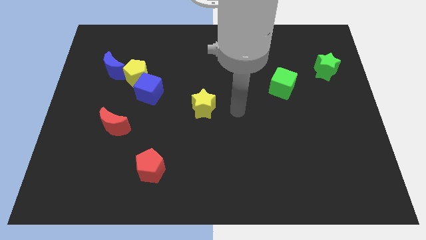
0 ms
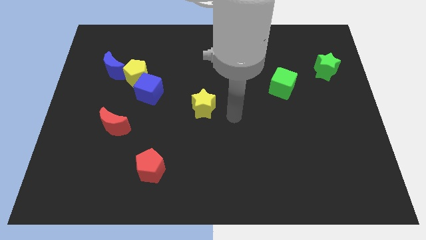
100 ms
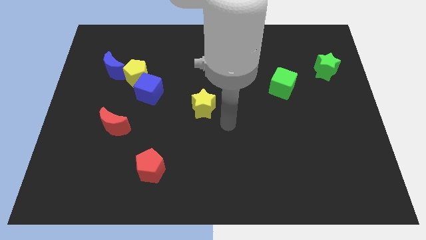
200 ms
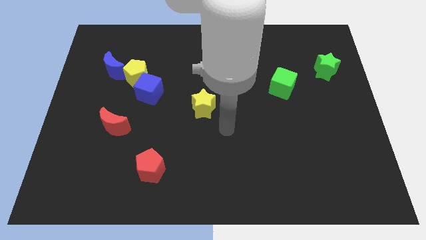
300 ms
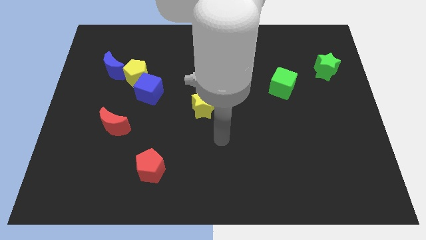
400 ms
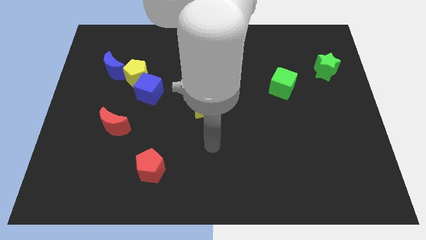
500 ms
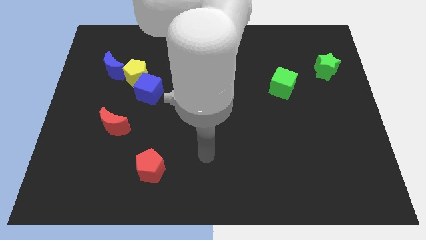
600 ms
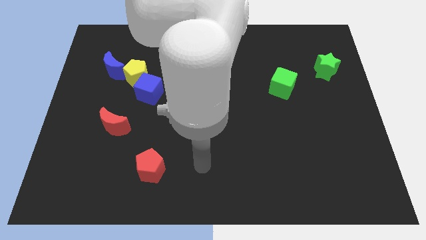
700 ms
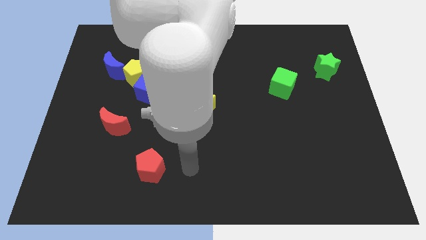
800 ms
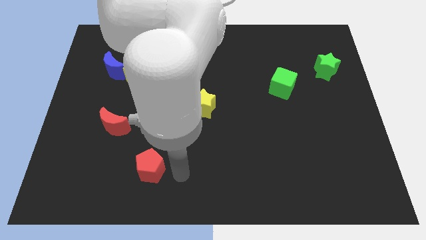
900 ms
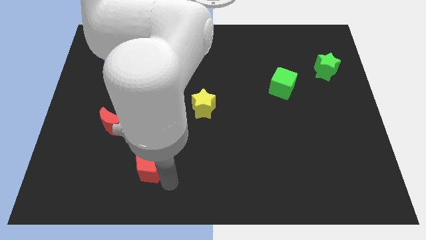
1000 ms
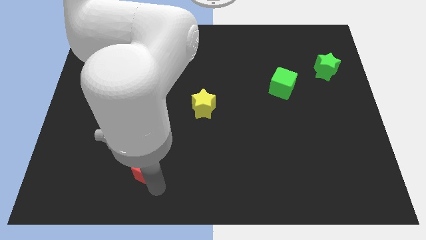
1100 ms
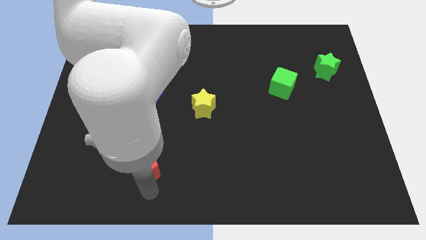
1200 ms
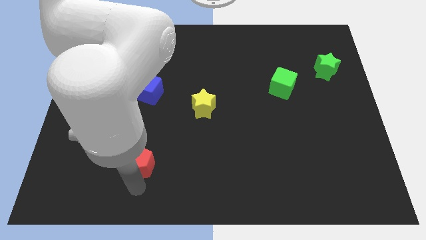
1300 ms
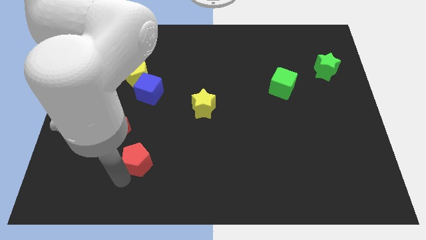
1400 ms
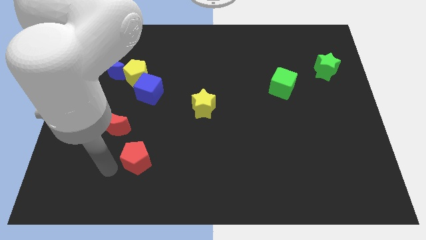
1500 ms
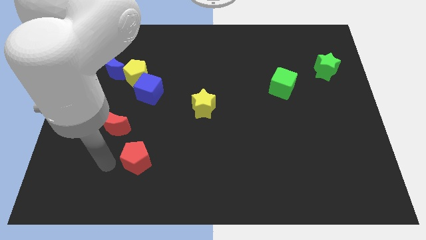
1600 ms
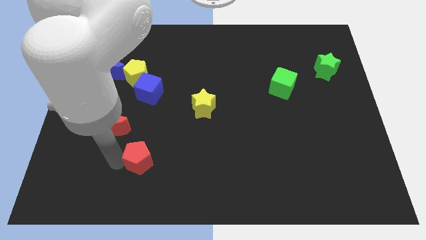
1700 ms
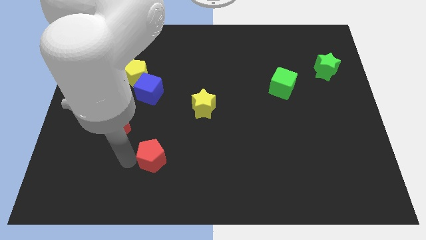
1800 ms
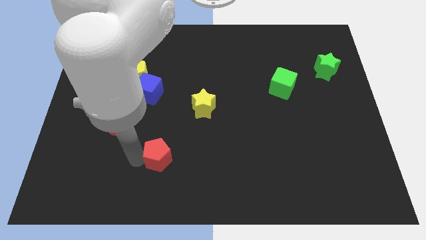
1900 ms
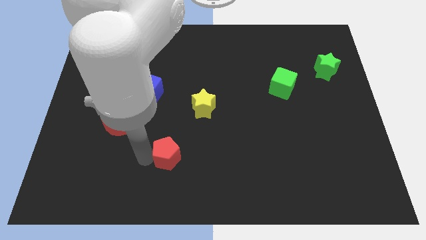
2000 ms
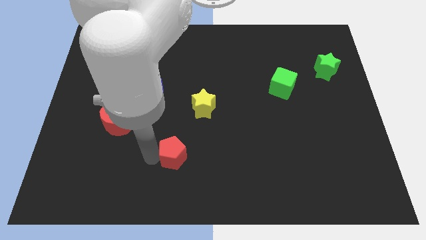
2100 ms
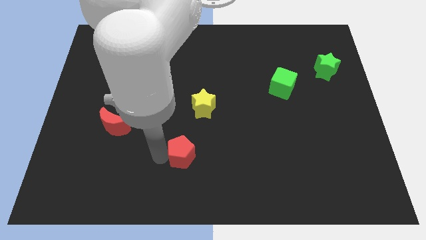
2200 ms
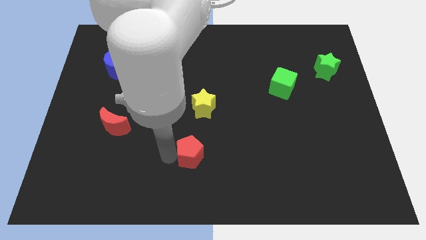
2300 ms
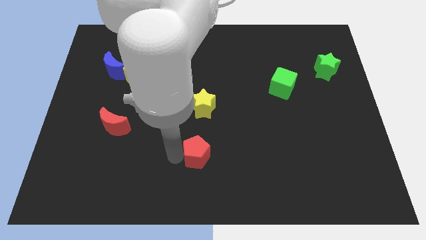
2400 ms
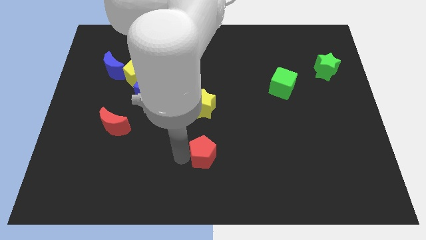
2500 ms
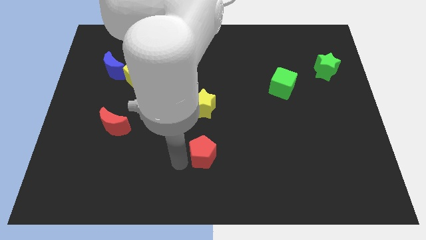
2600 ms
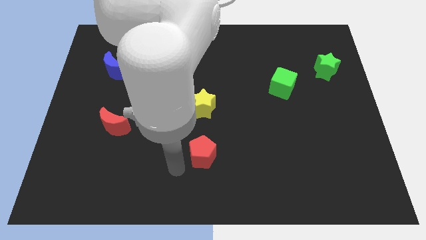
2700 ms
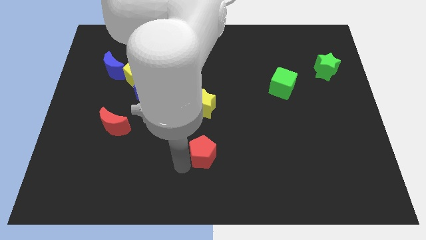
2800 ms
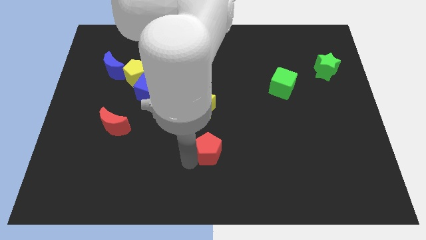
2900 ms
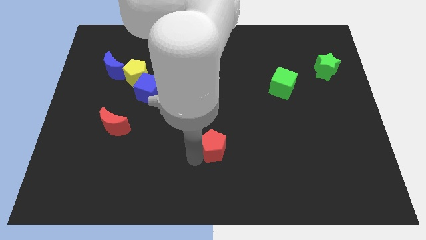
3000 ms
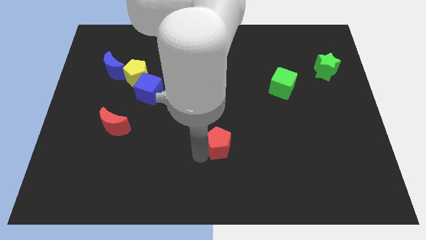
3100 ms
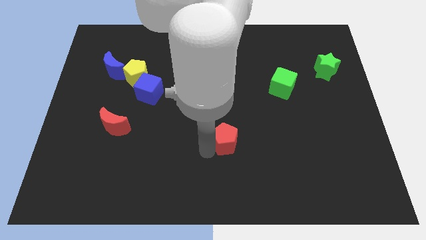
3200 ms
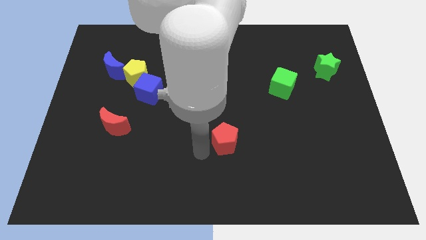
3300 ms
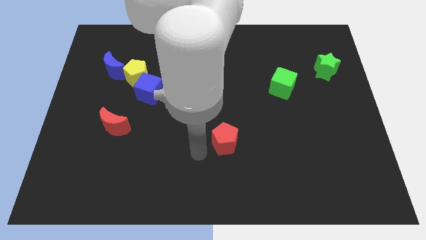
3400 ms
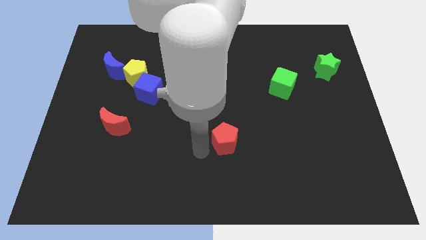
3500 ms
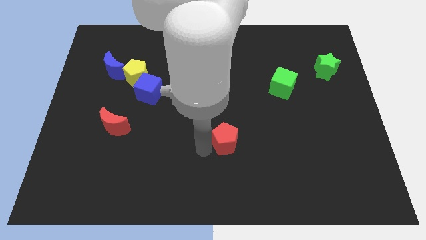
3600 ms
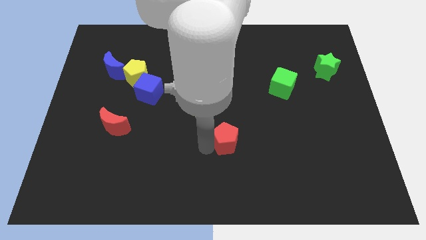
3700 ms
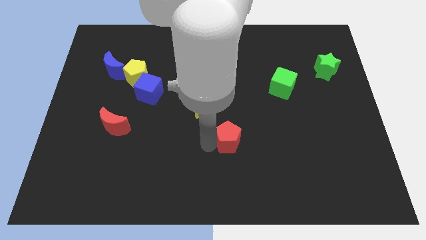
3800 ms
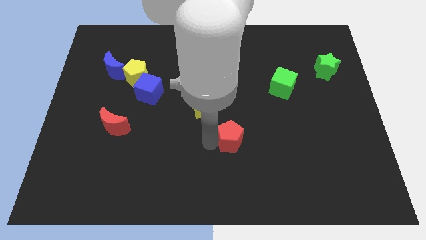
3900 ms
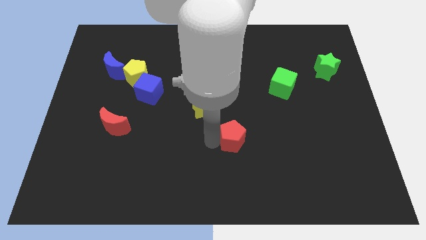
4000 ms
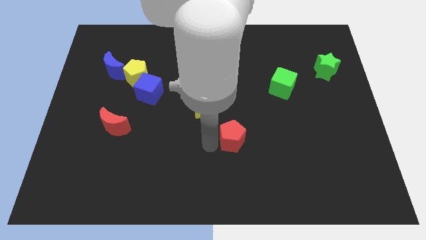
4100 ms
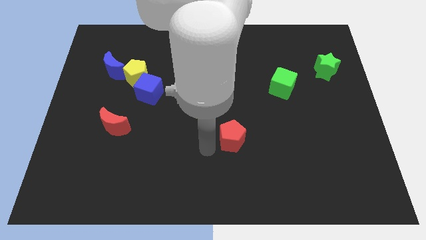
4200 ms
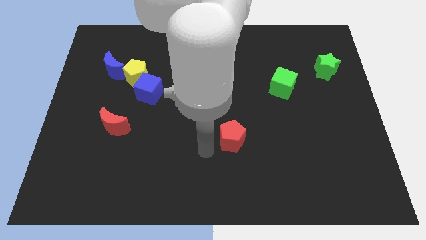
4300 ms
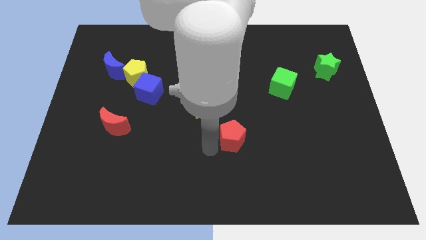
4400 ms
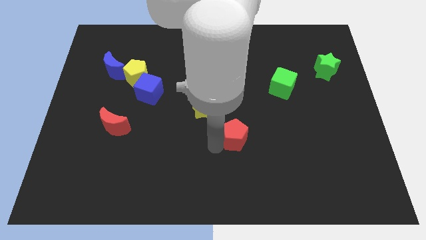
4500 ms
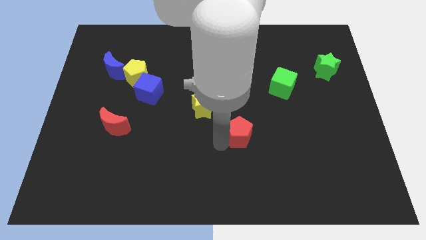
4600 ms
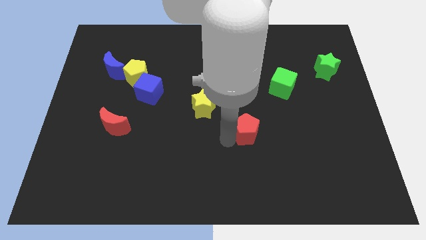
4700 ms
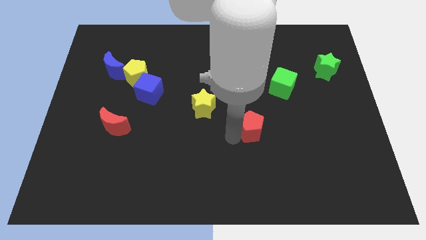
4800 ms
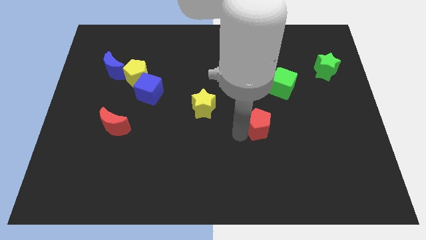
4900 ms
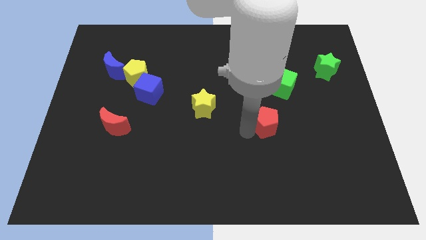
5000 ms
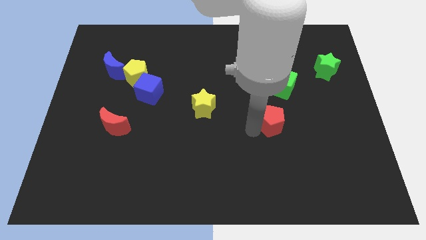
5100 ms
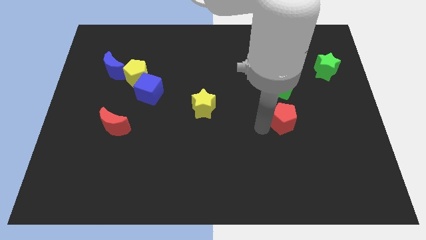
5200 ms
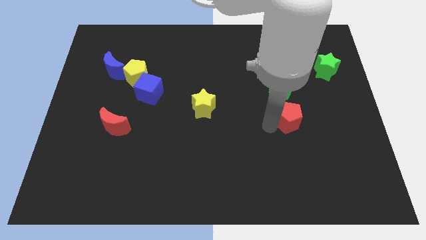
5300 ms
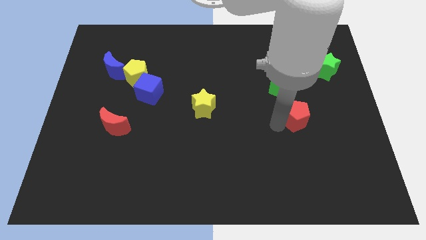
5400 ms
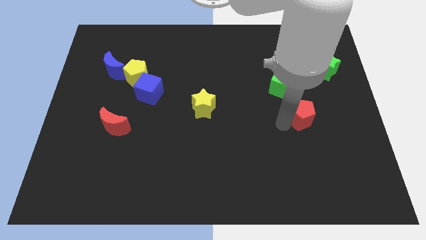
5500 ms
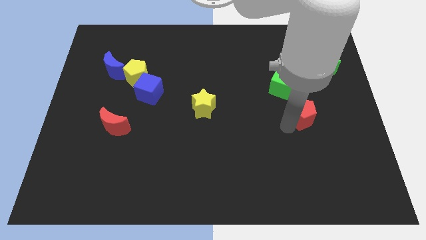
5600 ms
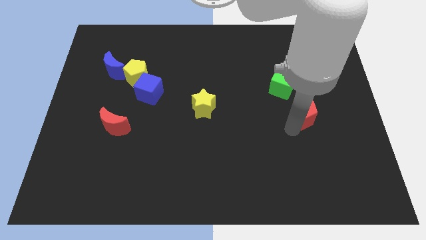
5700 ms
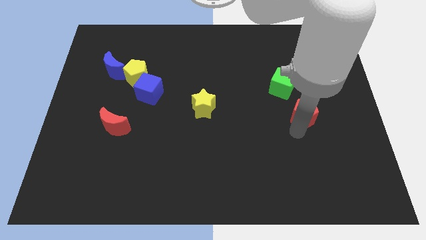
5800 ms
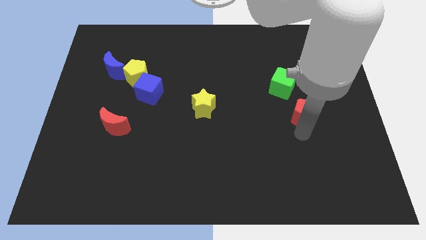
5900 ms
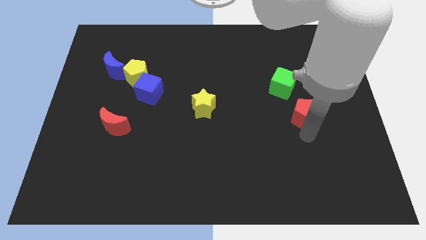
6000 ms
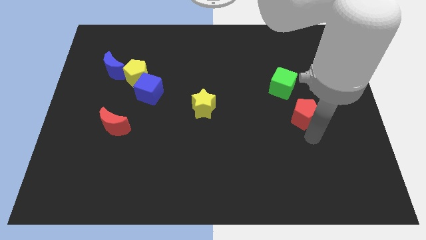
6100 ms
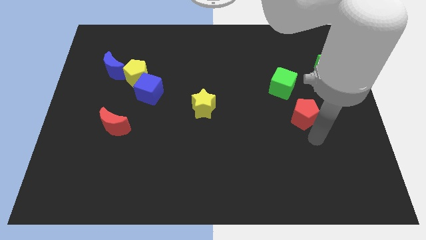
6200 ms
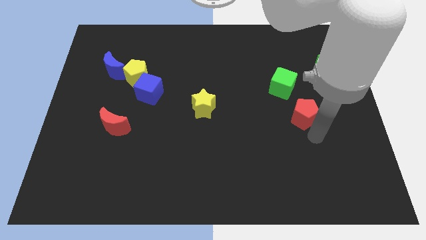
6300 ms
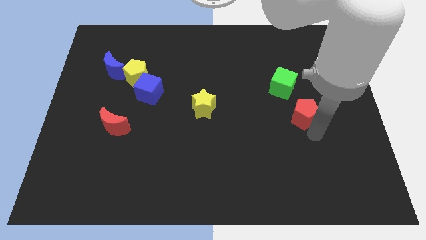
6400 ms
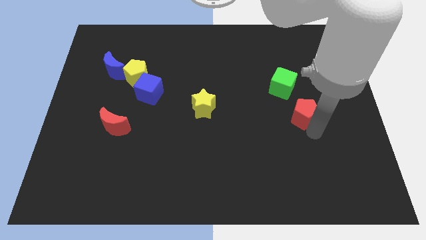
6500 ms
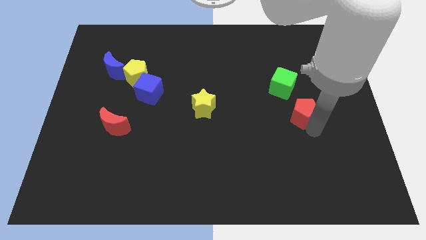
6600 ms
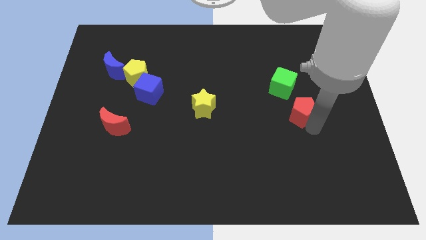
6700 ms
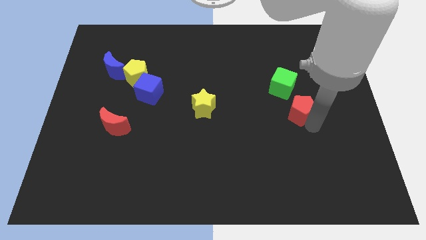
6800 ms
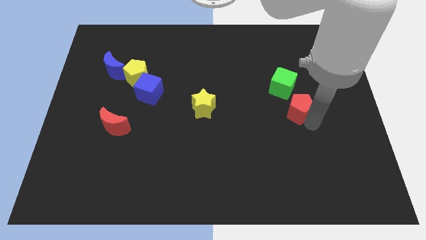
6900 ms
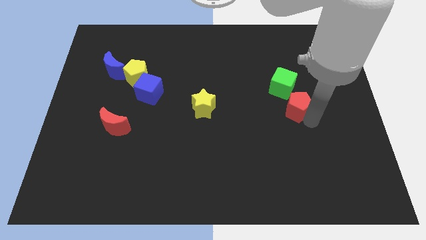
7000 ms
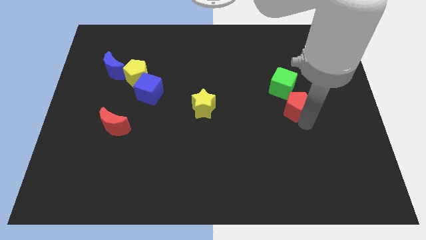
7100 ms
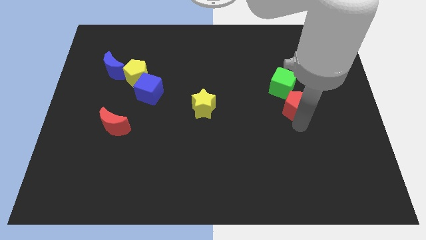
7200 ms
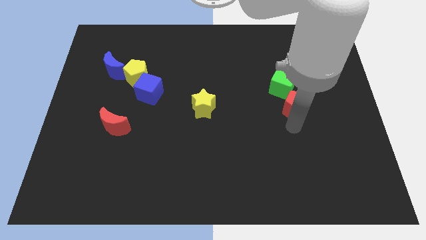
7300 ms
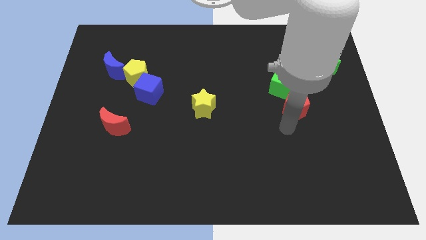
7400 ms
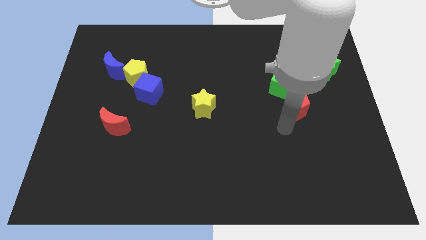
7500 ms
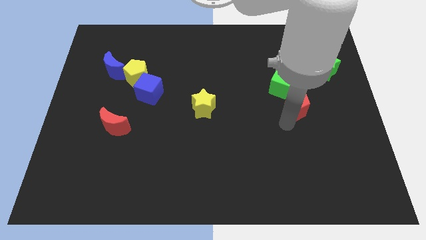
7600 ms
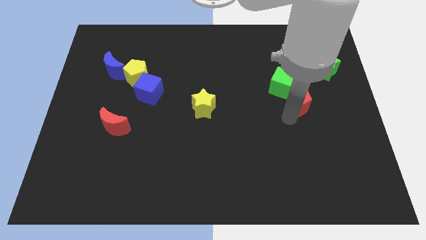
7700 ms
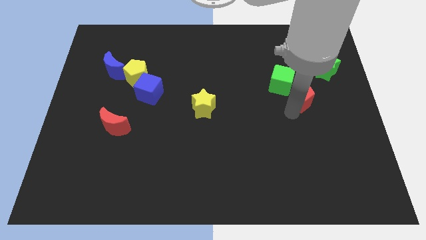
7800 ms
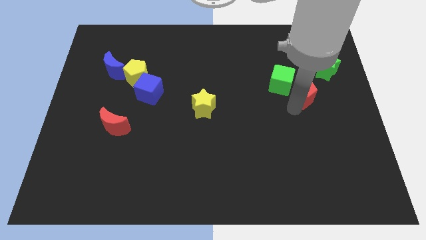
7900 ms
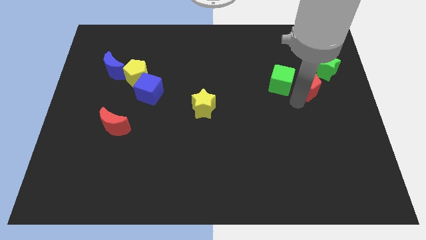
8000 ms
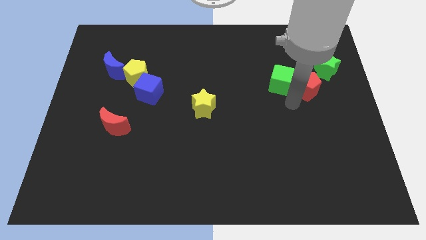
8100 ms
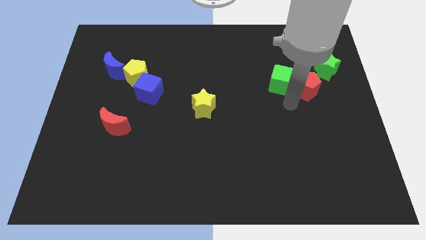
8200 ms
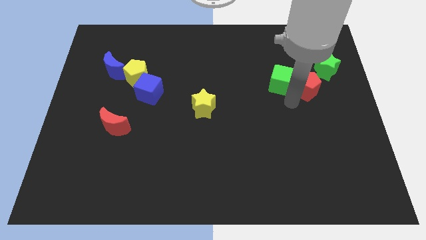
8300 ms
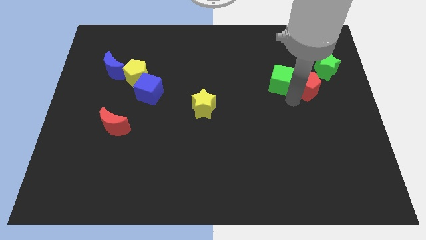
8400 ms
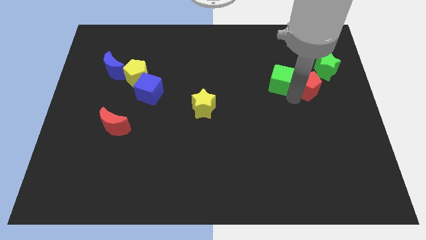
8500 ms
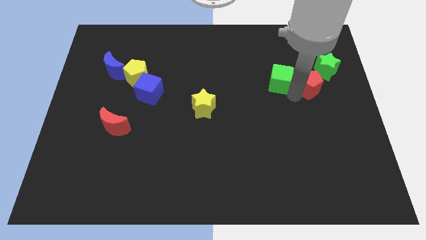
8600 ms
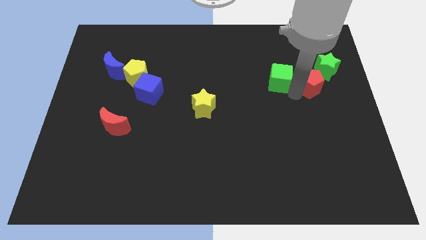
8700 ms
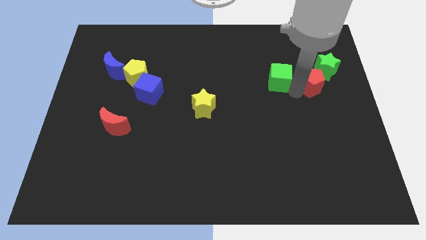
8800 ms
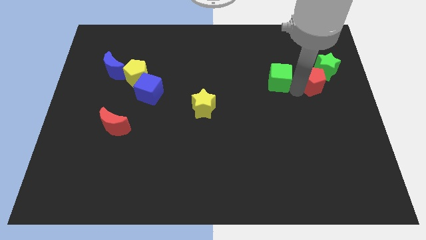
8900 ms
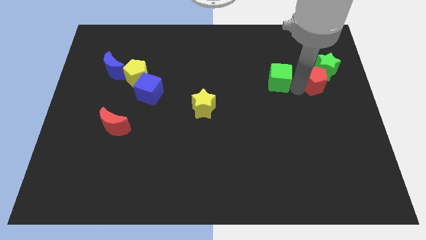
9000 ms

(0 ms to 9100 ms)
push the red pentagon to the green star
